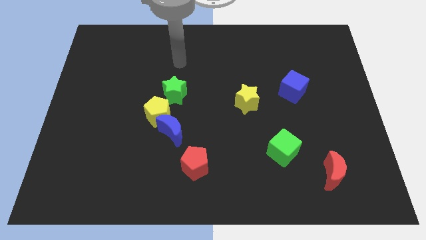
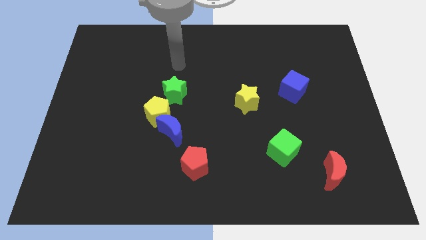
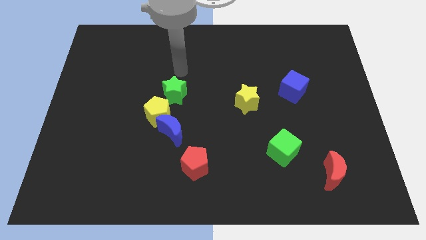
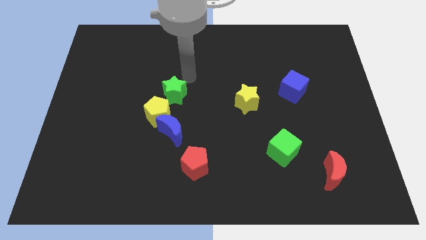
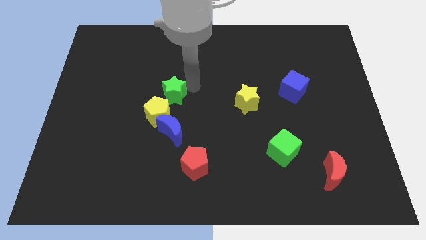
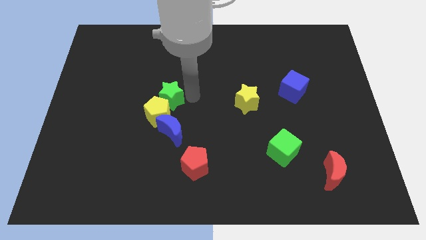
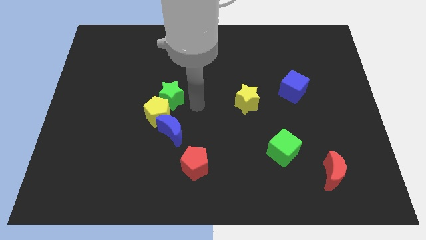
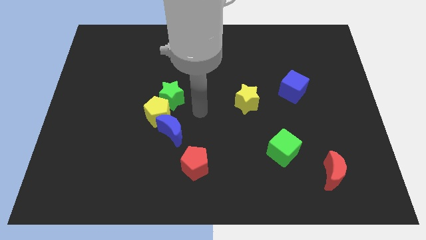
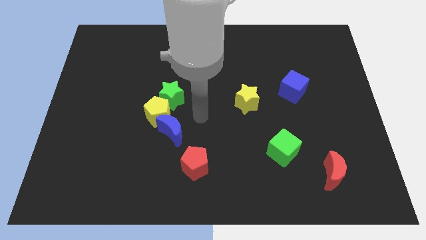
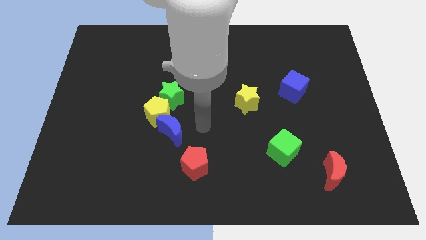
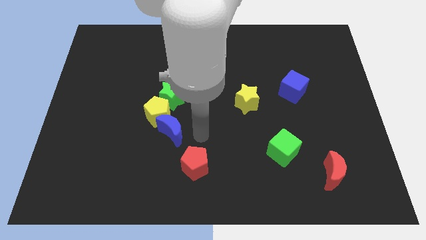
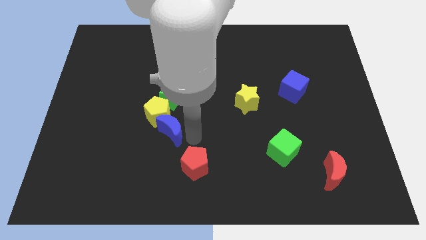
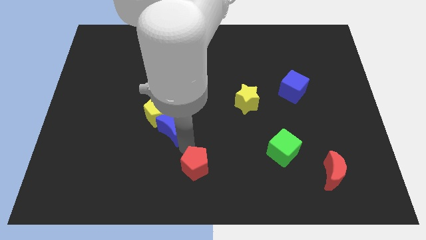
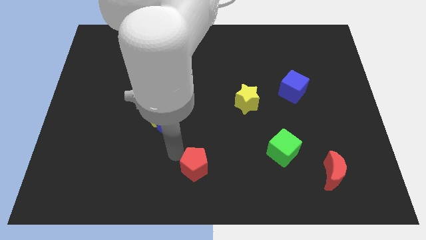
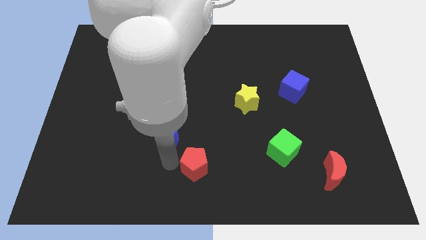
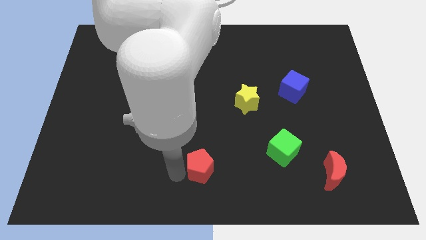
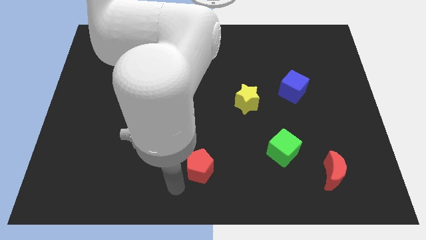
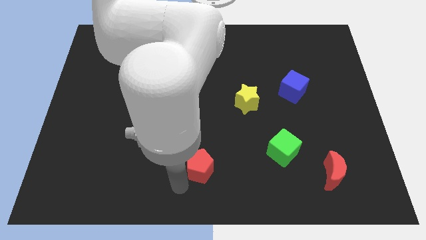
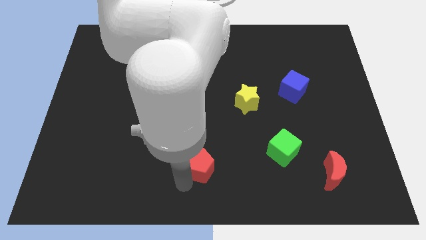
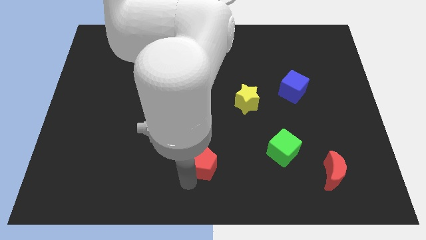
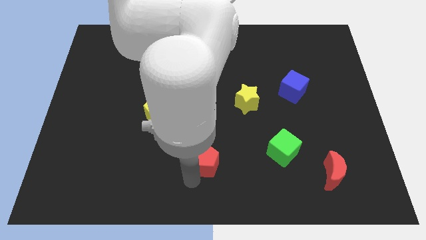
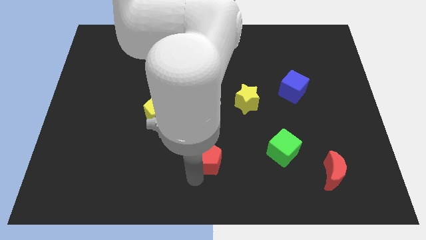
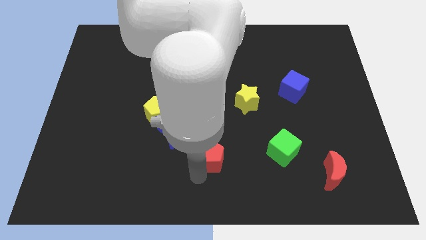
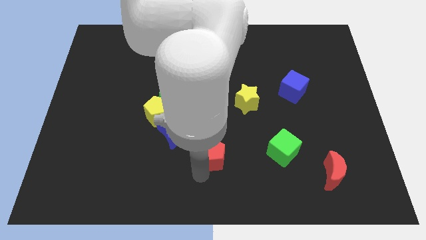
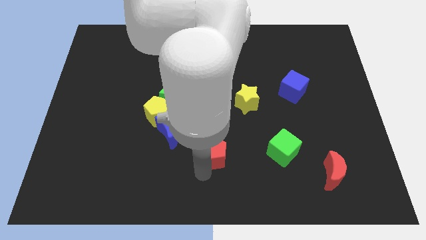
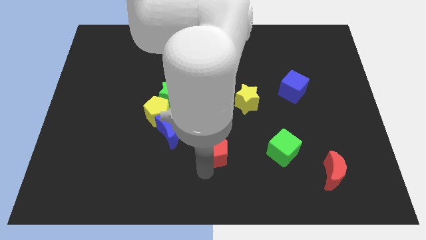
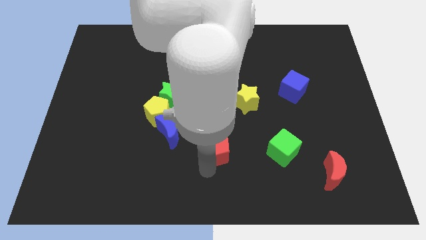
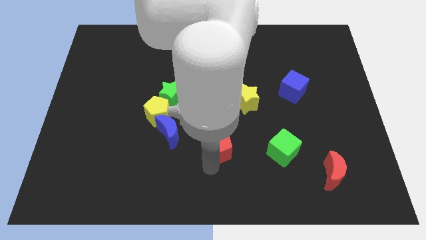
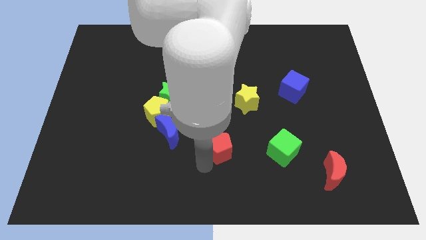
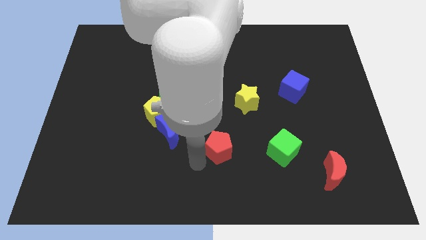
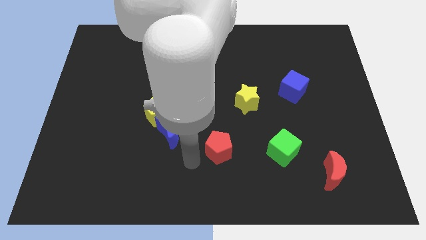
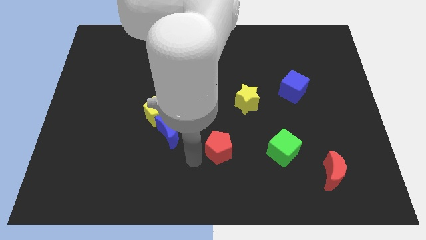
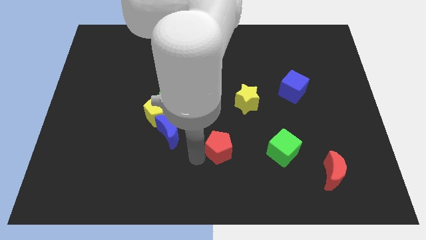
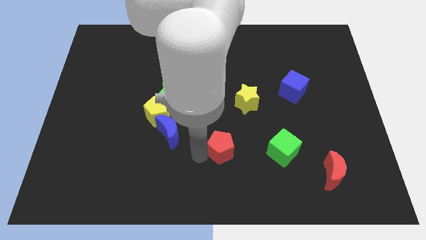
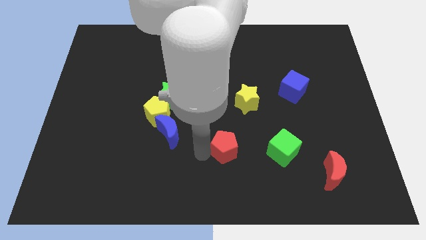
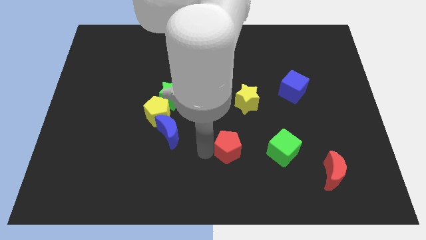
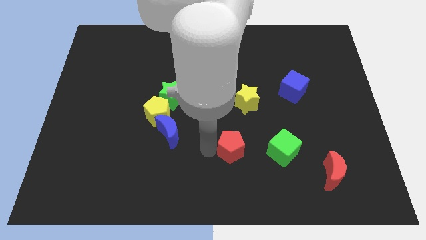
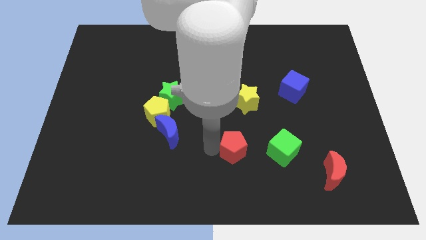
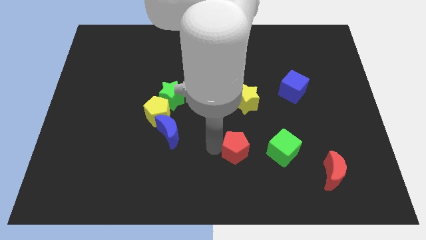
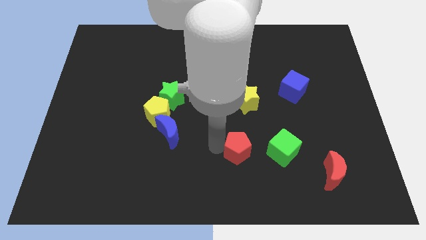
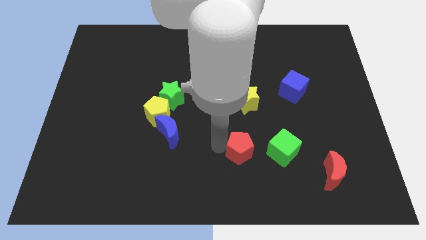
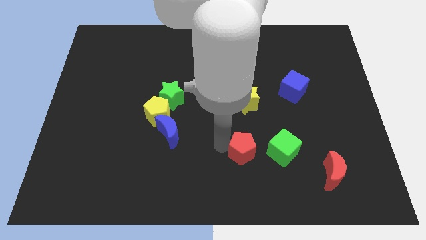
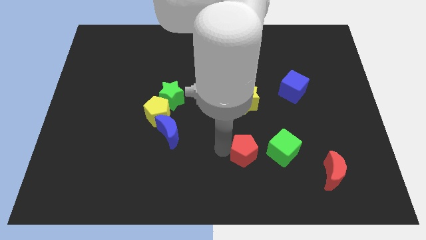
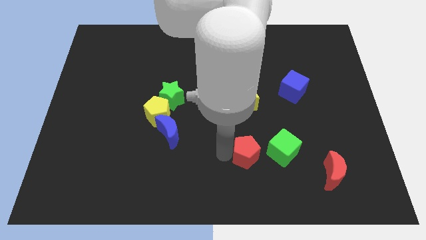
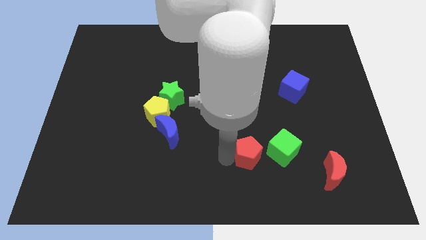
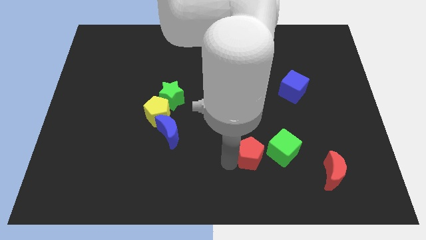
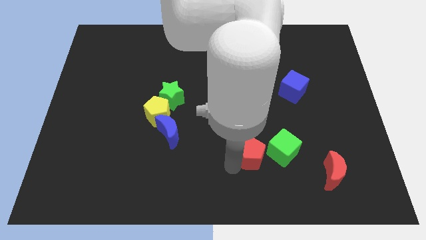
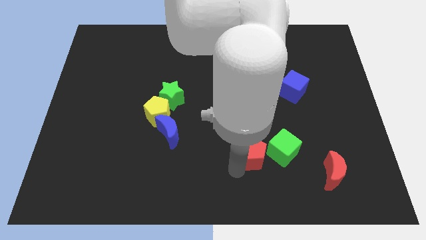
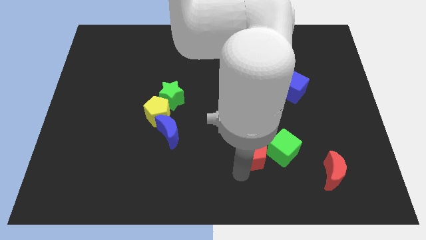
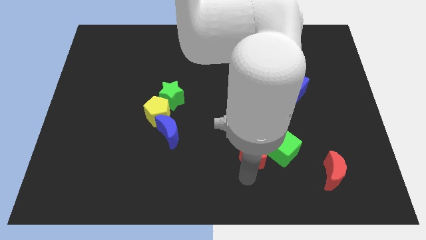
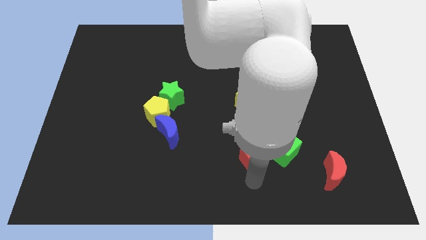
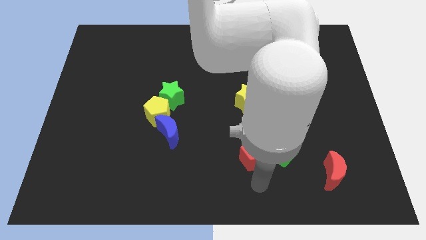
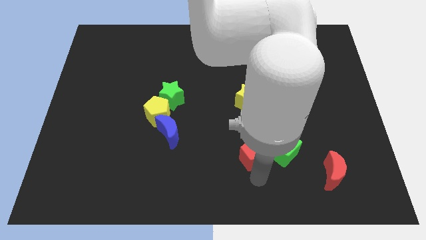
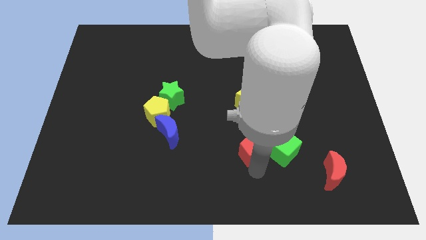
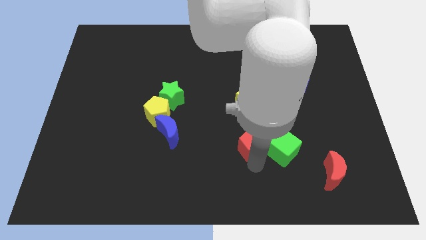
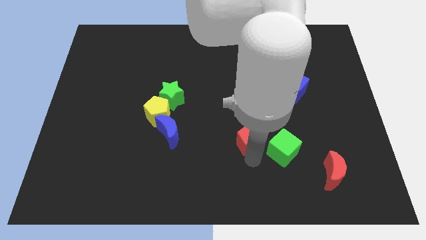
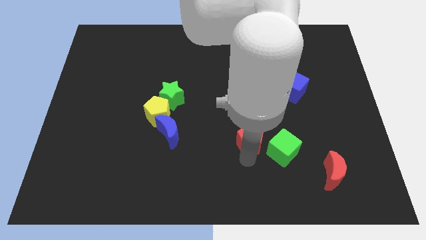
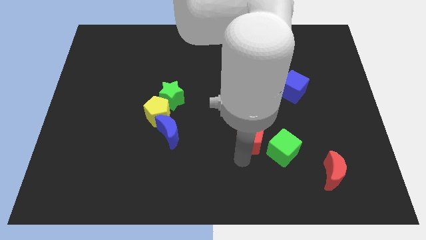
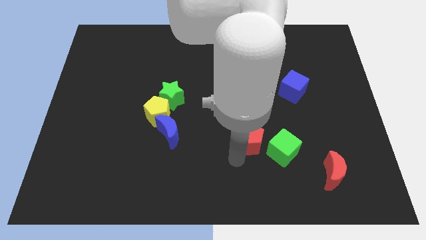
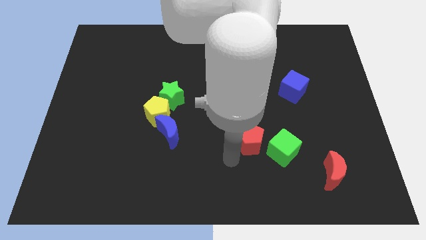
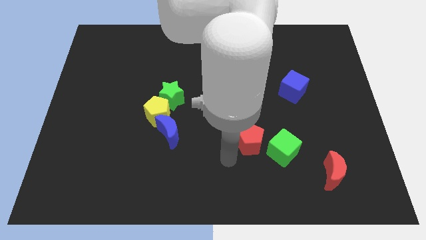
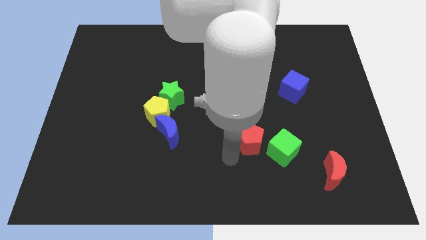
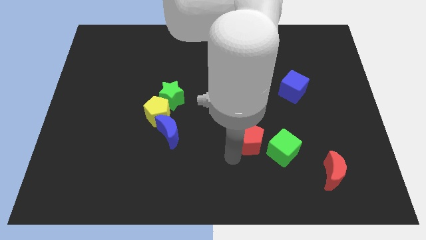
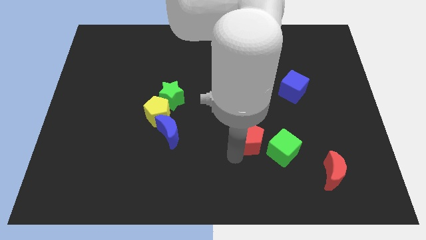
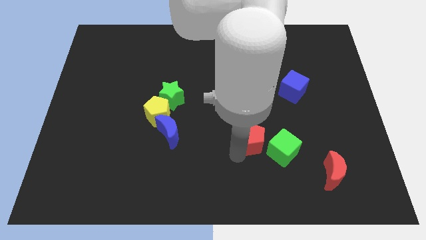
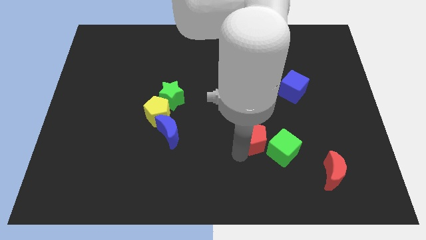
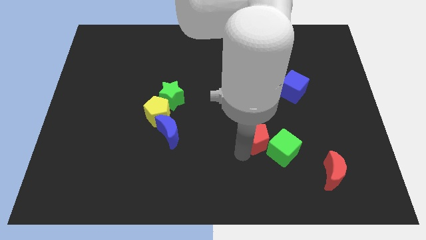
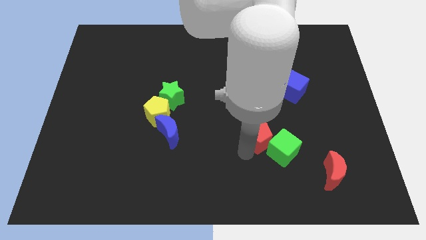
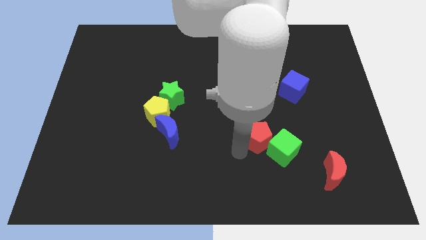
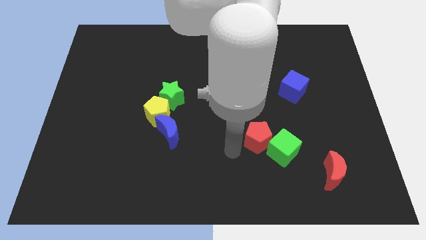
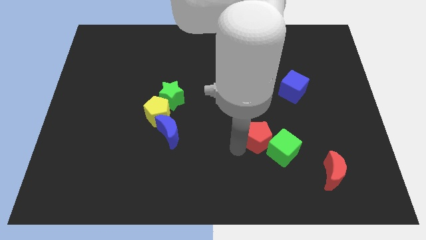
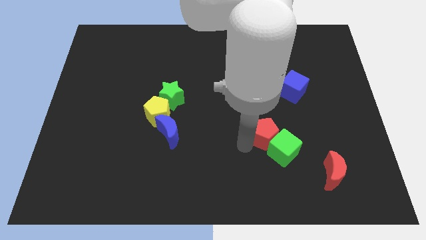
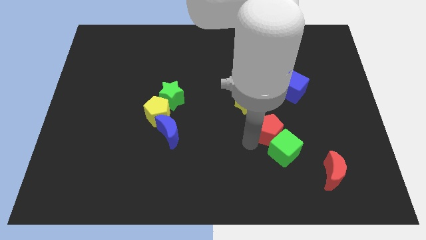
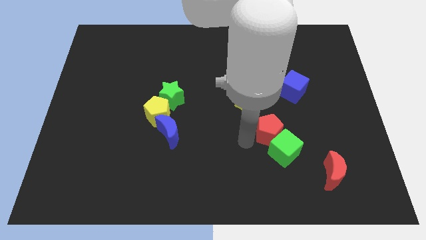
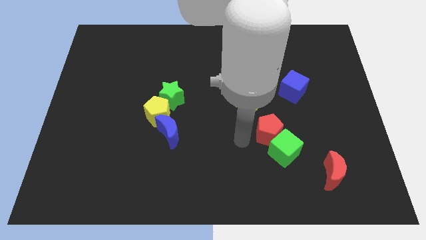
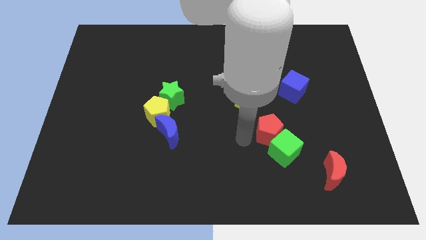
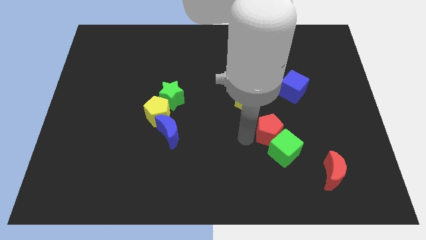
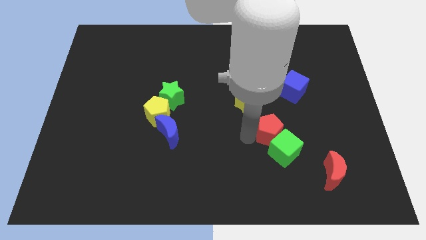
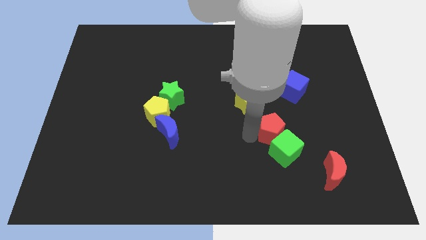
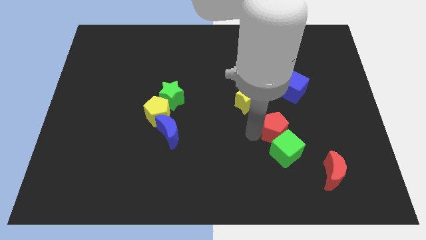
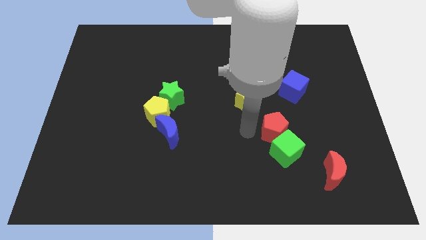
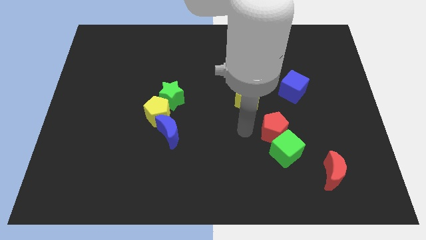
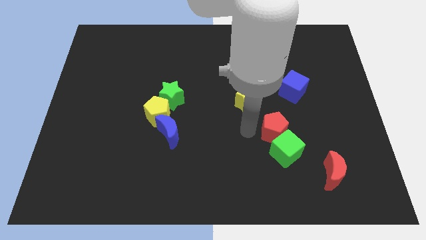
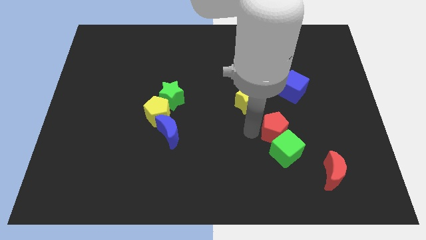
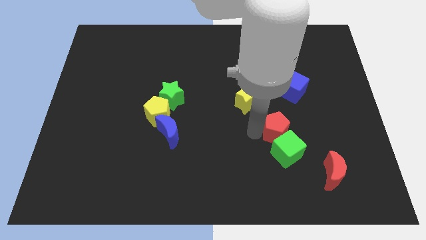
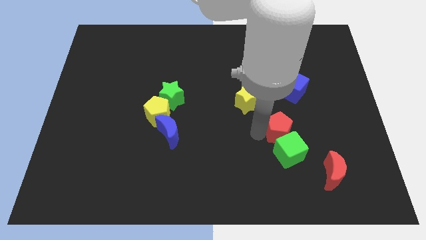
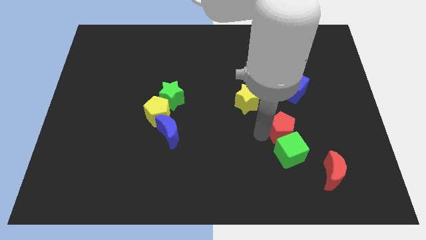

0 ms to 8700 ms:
push the red pentagon to the top right side of the green cube
